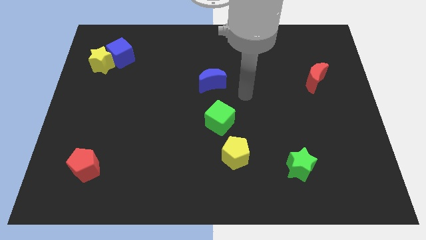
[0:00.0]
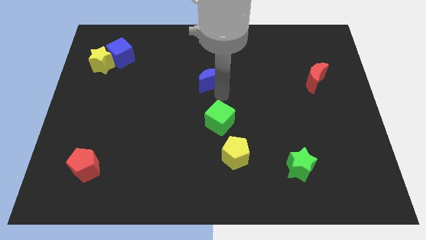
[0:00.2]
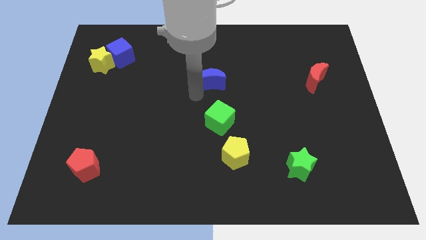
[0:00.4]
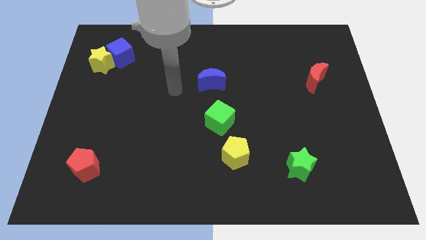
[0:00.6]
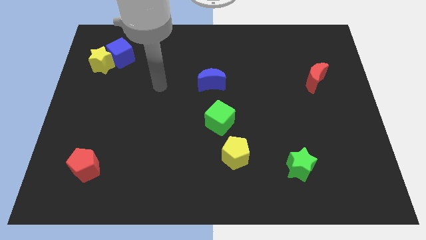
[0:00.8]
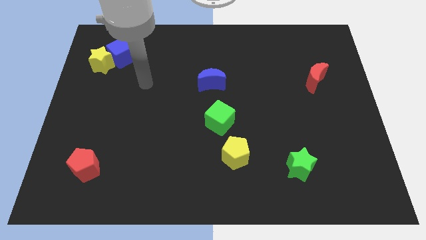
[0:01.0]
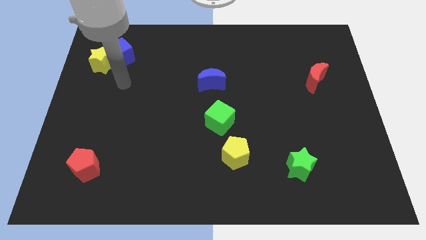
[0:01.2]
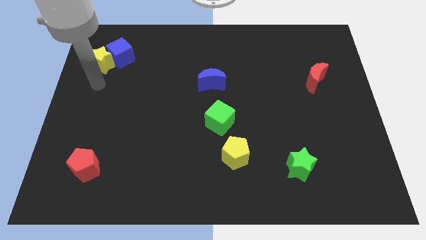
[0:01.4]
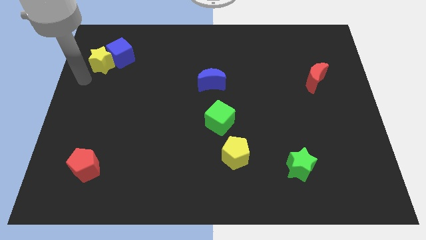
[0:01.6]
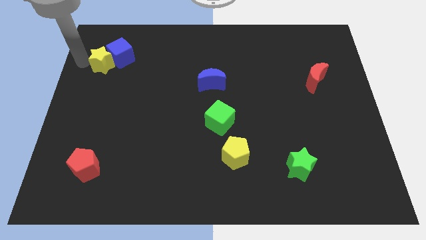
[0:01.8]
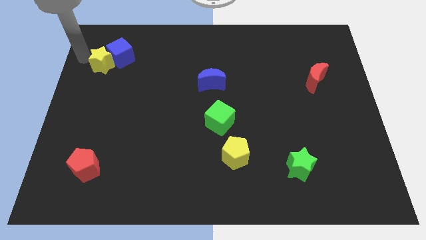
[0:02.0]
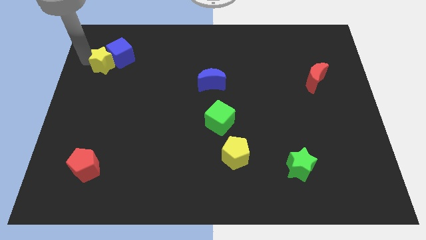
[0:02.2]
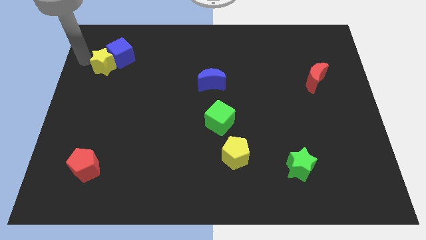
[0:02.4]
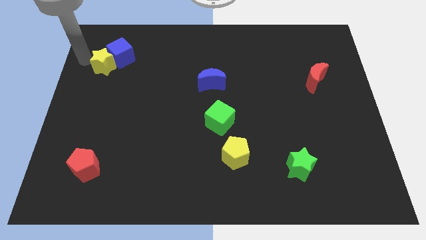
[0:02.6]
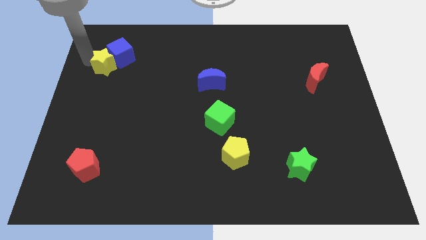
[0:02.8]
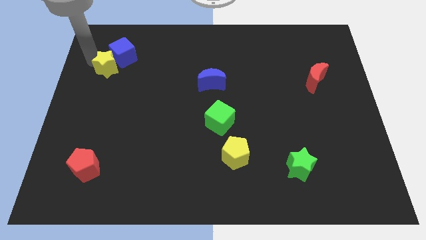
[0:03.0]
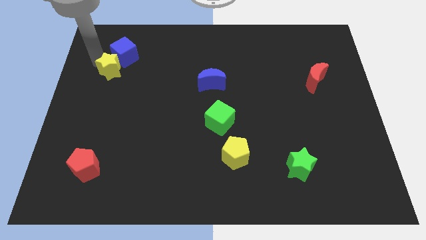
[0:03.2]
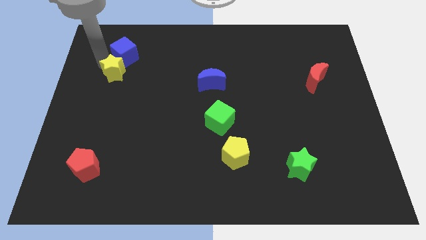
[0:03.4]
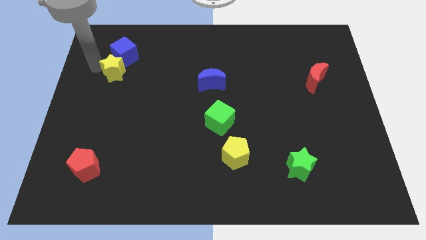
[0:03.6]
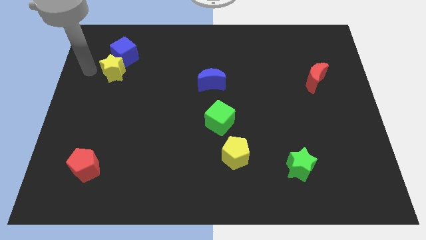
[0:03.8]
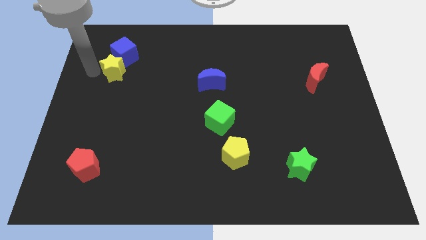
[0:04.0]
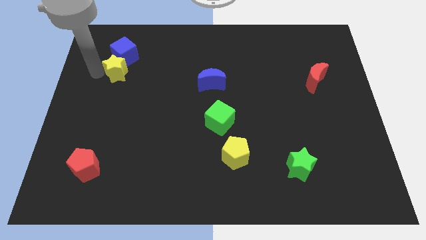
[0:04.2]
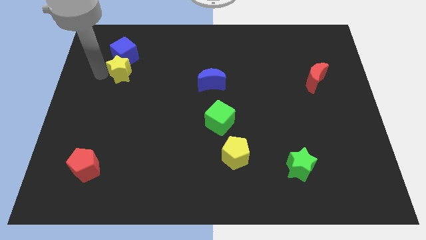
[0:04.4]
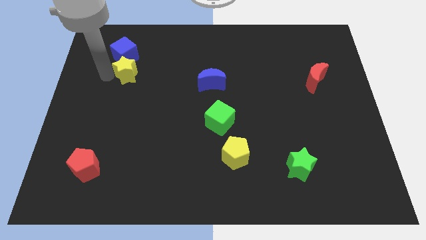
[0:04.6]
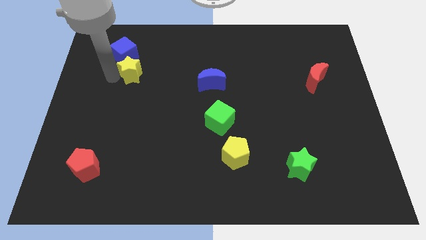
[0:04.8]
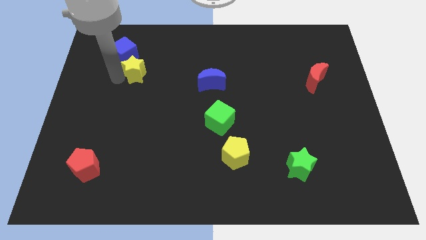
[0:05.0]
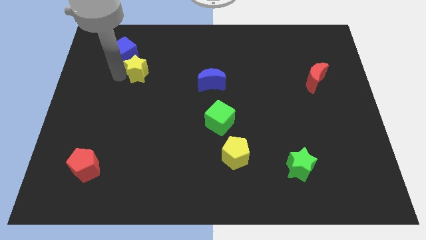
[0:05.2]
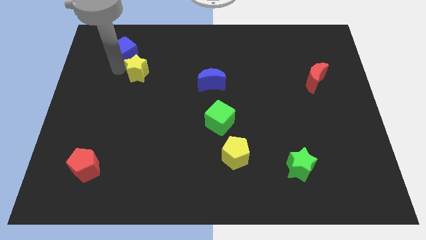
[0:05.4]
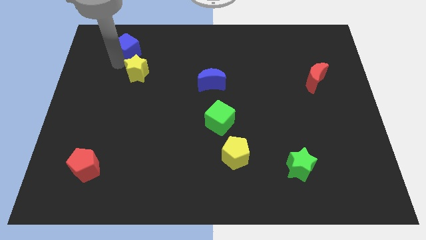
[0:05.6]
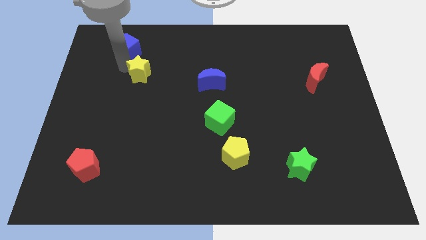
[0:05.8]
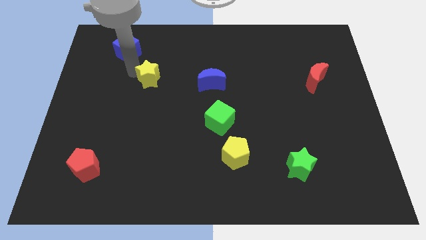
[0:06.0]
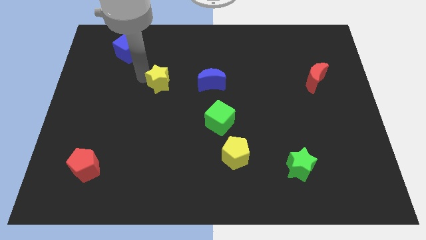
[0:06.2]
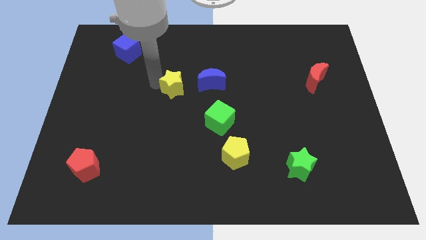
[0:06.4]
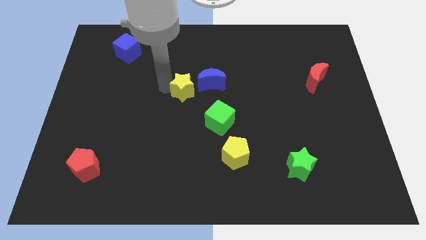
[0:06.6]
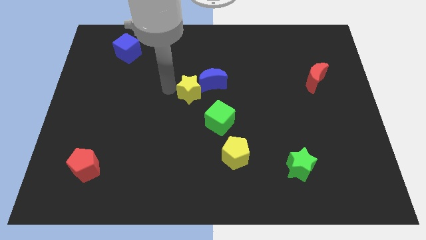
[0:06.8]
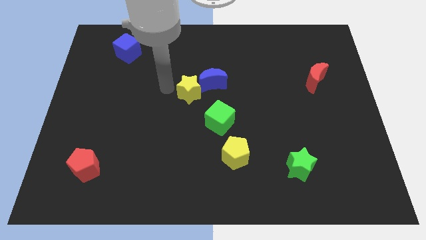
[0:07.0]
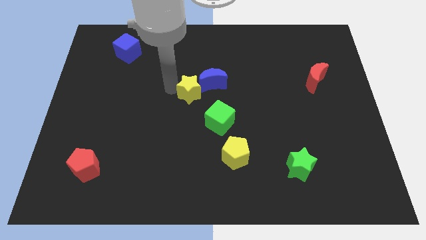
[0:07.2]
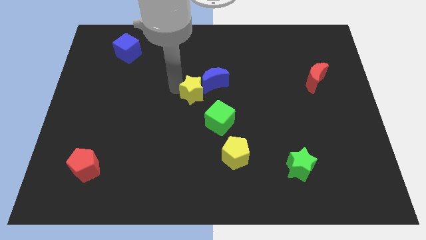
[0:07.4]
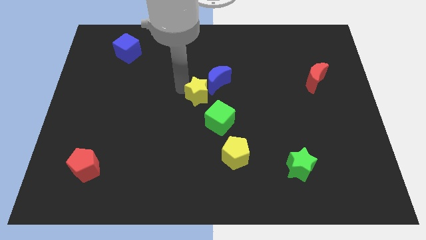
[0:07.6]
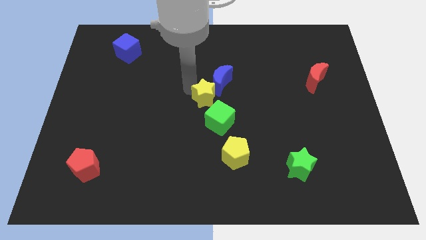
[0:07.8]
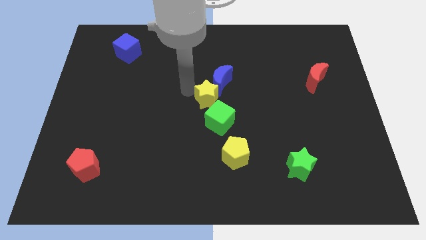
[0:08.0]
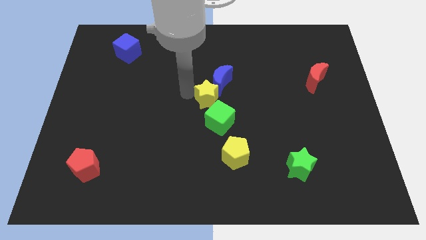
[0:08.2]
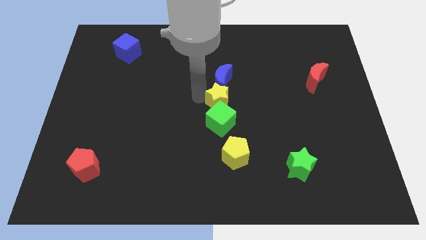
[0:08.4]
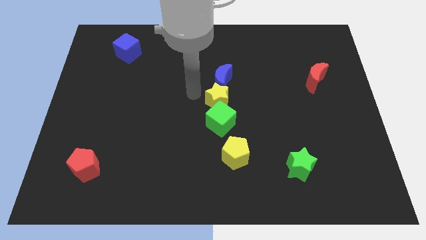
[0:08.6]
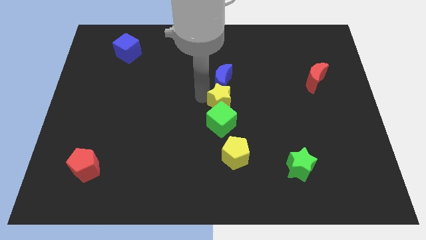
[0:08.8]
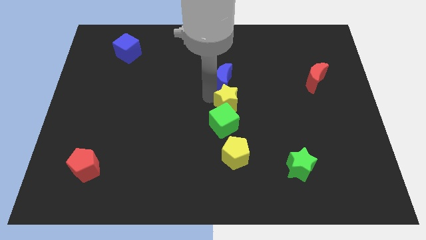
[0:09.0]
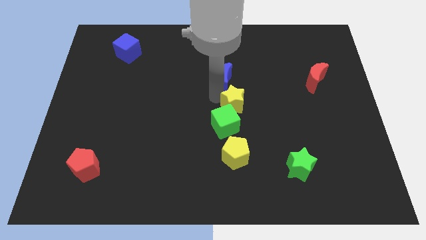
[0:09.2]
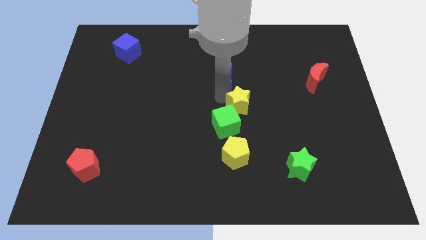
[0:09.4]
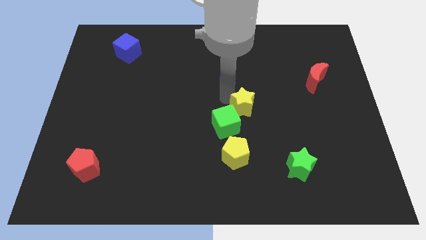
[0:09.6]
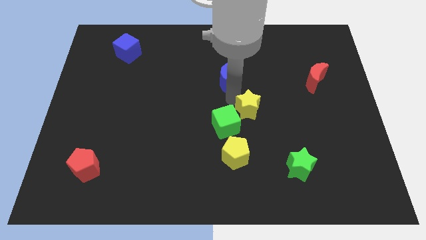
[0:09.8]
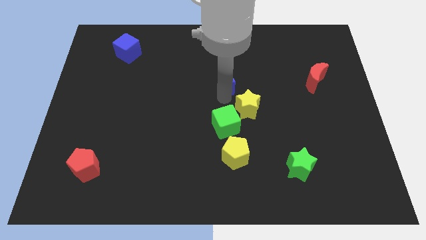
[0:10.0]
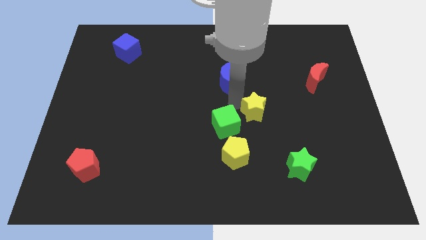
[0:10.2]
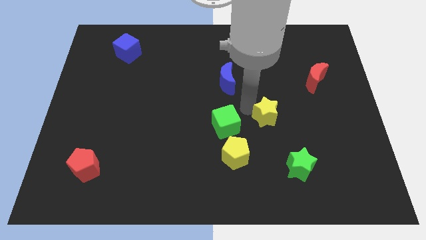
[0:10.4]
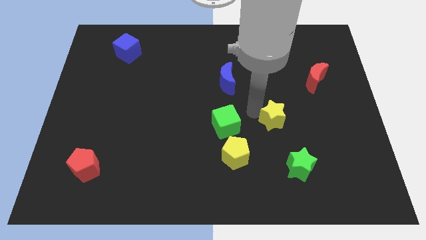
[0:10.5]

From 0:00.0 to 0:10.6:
push the yellow star above the green star

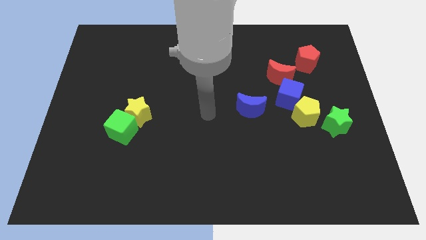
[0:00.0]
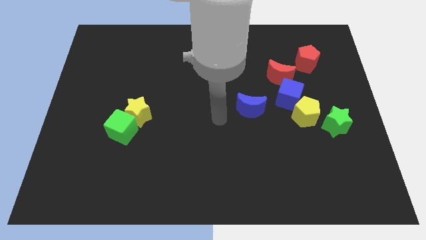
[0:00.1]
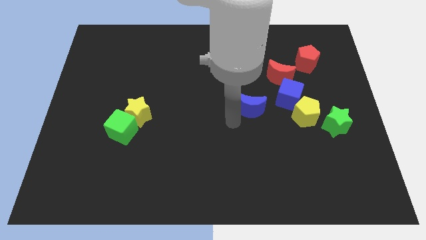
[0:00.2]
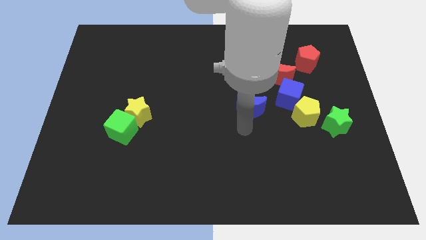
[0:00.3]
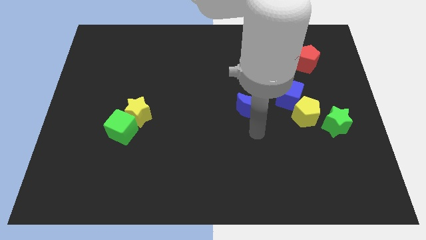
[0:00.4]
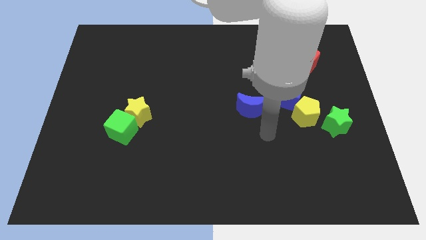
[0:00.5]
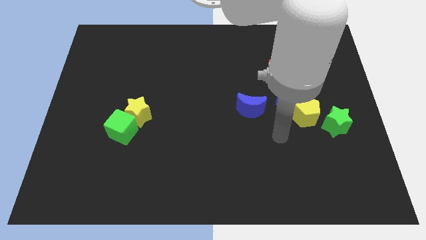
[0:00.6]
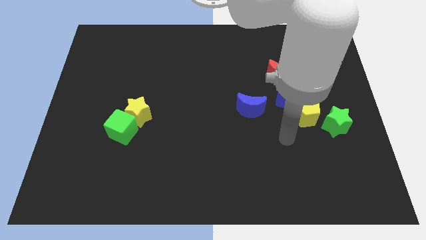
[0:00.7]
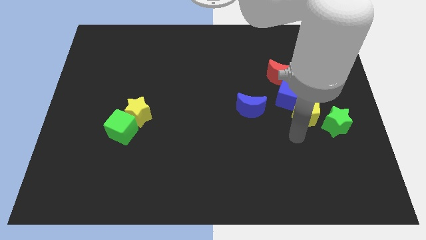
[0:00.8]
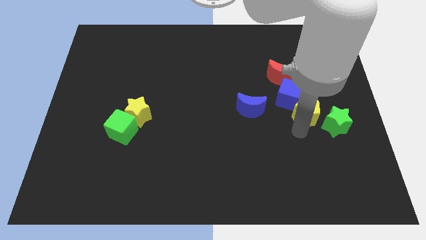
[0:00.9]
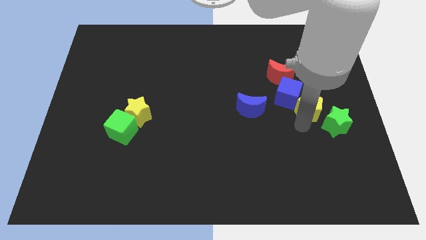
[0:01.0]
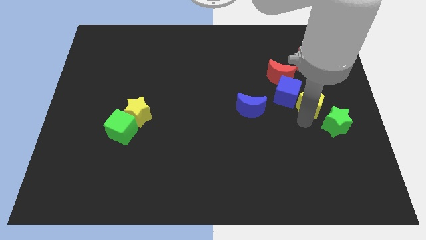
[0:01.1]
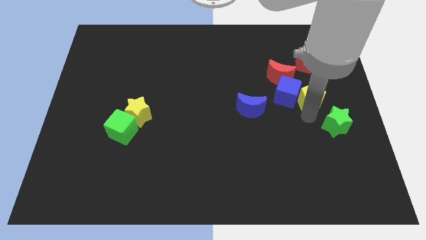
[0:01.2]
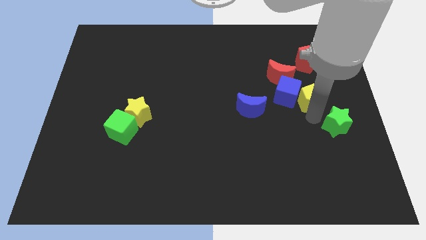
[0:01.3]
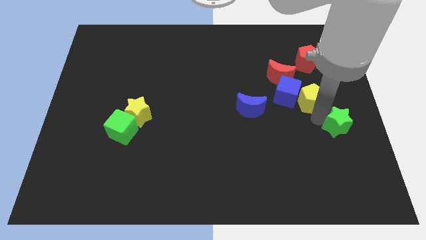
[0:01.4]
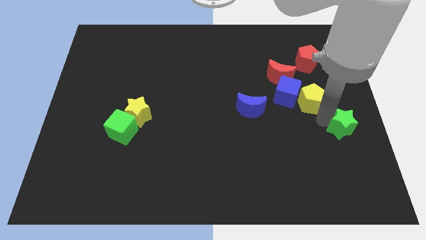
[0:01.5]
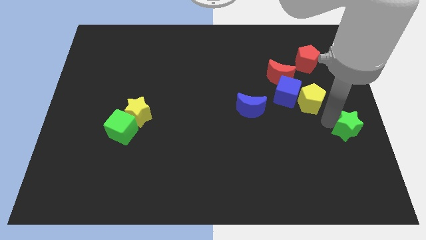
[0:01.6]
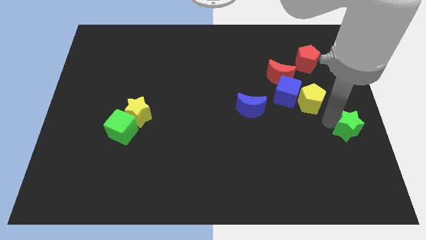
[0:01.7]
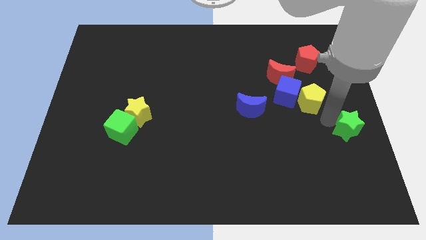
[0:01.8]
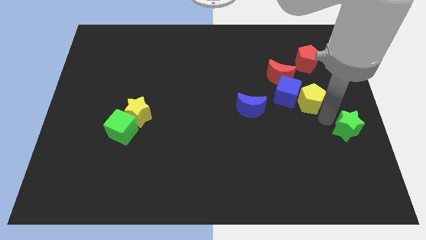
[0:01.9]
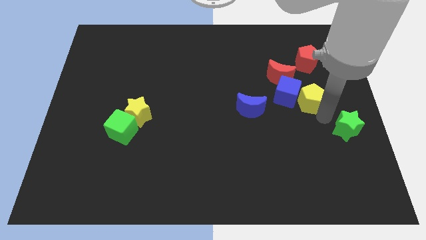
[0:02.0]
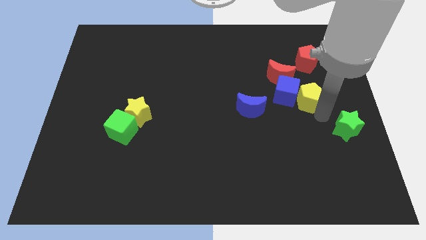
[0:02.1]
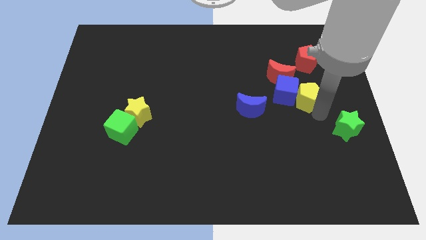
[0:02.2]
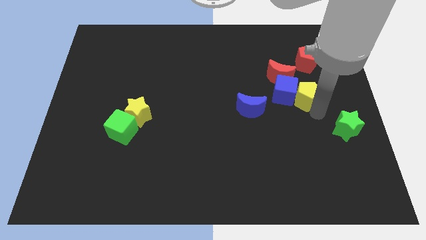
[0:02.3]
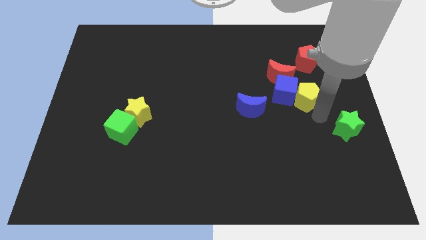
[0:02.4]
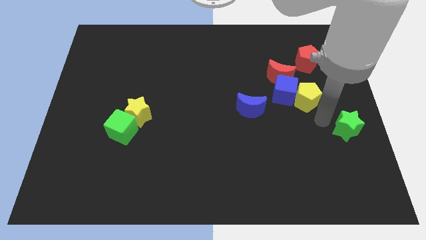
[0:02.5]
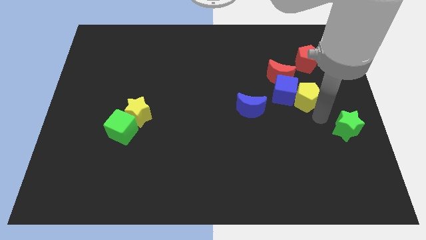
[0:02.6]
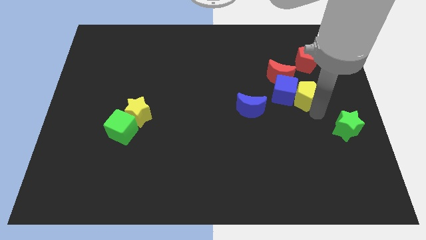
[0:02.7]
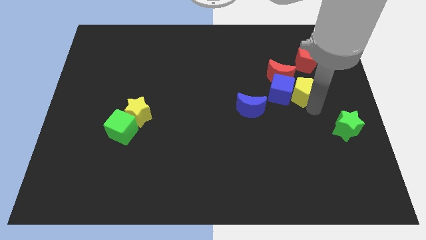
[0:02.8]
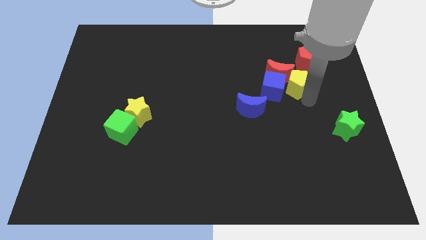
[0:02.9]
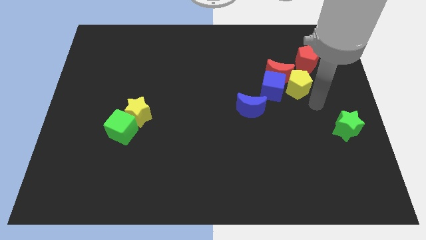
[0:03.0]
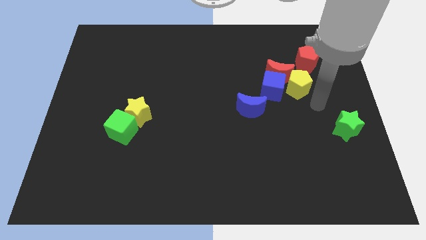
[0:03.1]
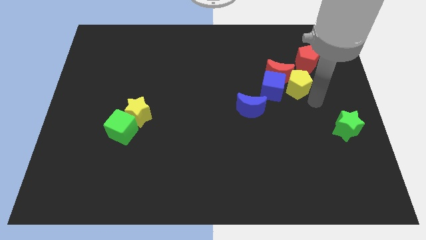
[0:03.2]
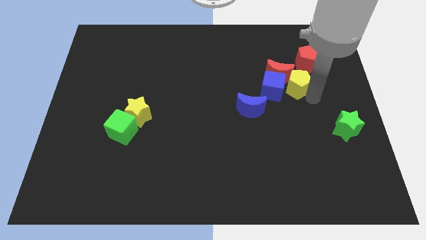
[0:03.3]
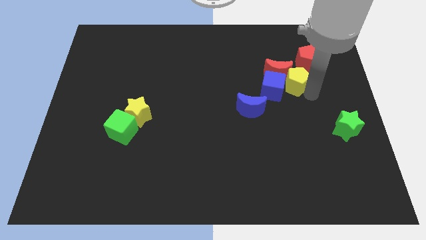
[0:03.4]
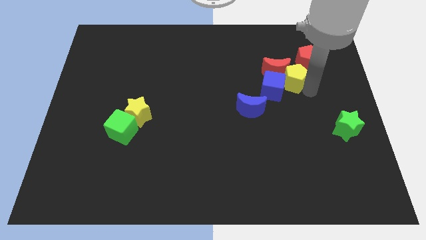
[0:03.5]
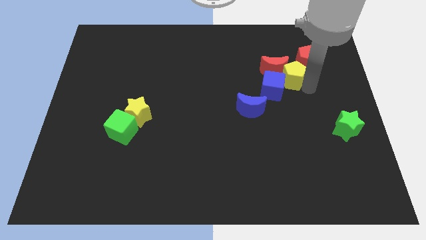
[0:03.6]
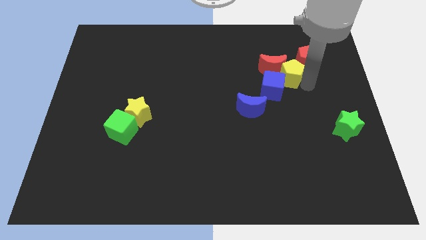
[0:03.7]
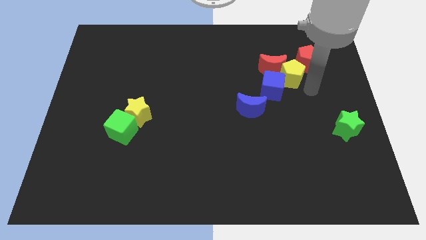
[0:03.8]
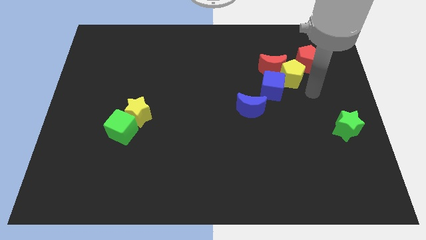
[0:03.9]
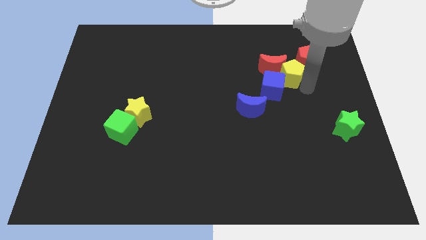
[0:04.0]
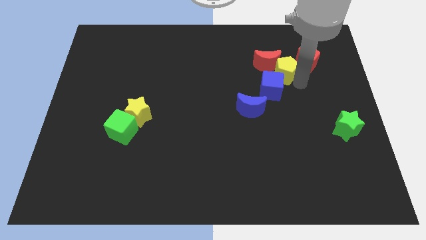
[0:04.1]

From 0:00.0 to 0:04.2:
put the yellow pentagon to the top side of the blue cube
